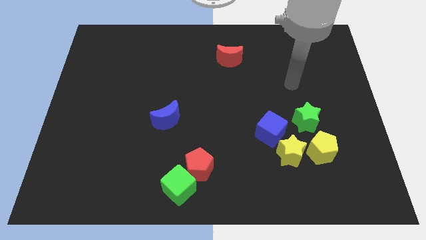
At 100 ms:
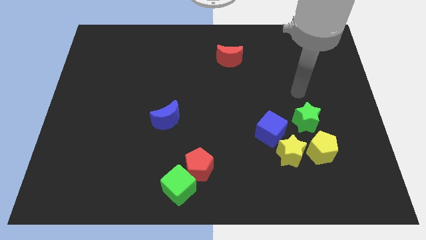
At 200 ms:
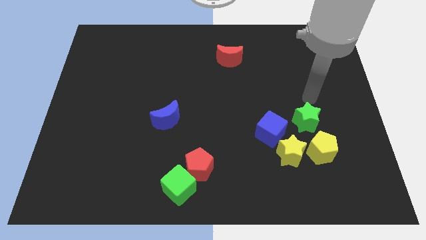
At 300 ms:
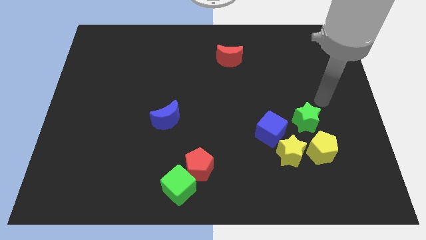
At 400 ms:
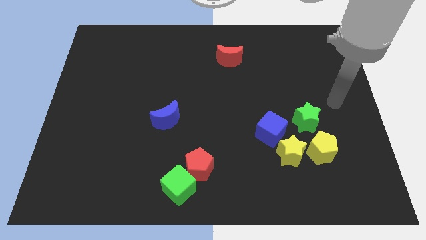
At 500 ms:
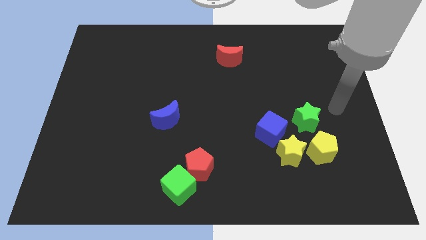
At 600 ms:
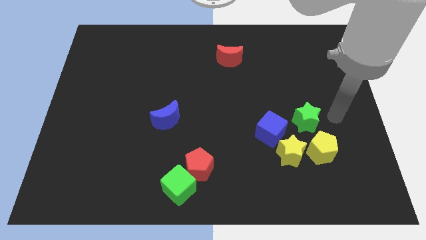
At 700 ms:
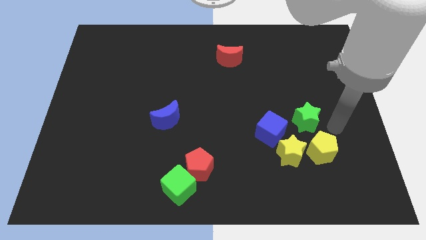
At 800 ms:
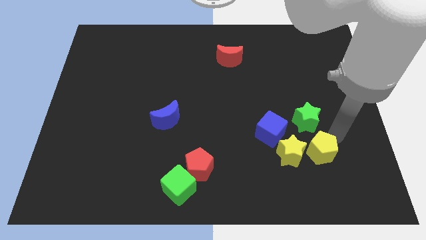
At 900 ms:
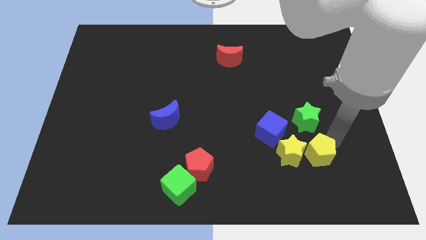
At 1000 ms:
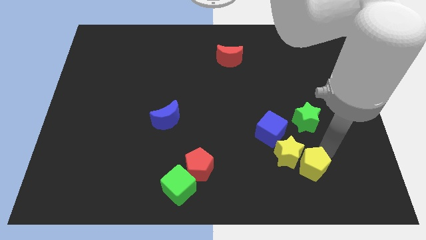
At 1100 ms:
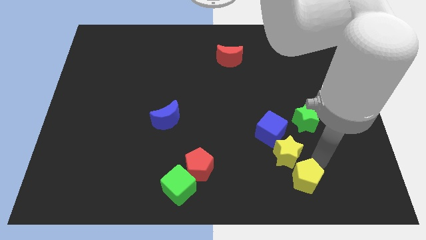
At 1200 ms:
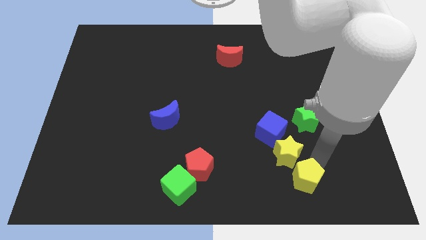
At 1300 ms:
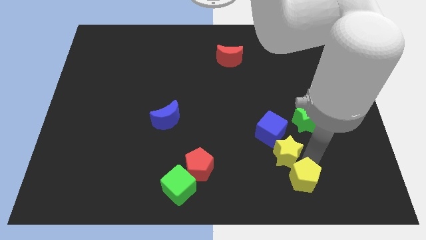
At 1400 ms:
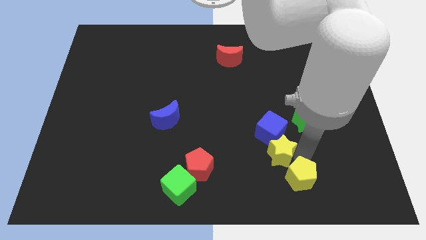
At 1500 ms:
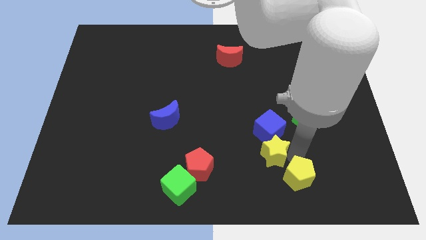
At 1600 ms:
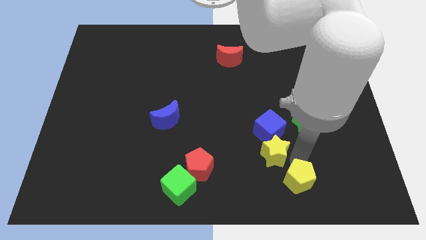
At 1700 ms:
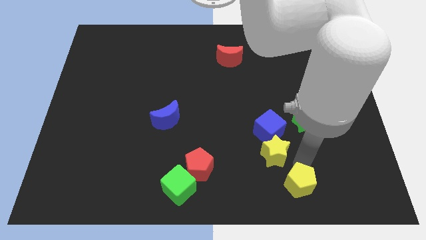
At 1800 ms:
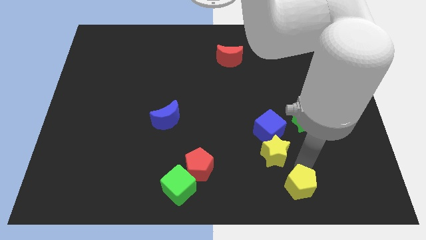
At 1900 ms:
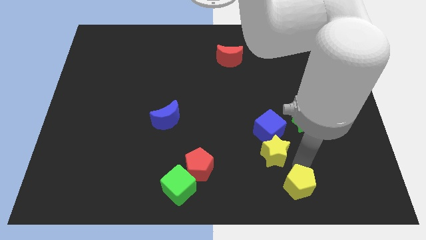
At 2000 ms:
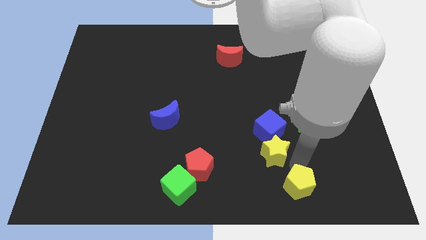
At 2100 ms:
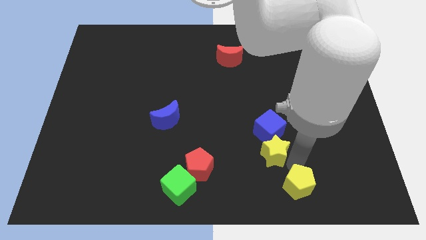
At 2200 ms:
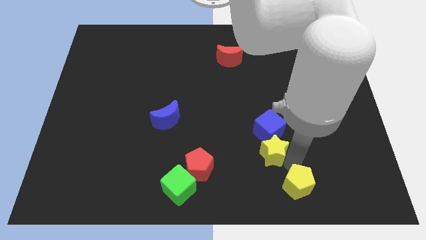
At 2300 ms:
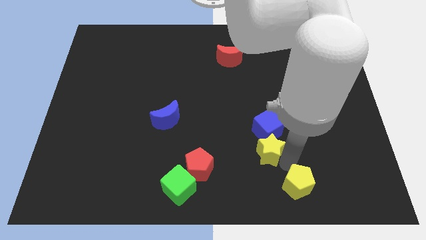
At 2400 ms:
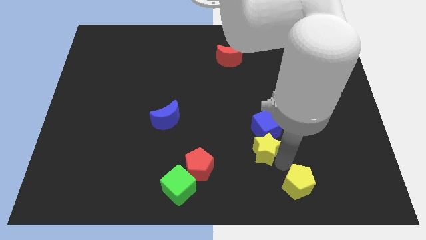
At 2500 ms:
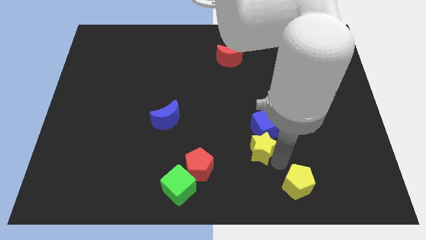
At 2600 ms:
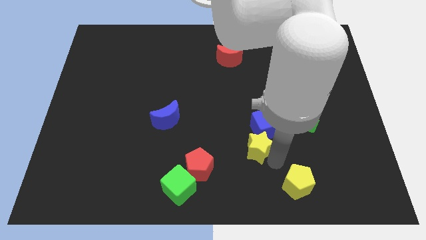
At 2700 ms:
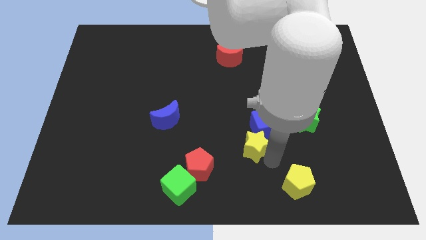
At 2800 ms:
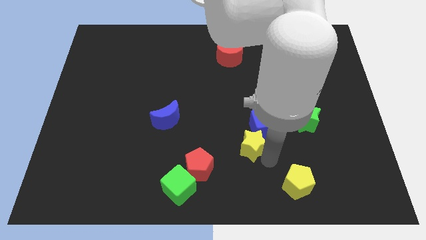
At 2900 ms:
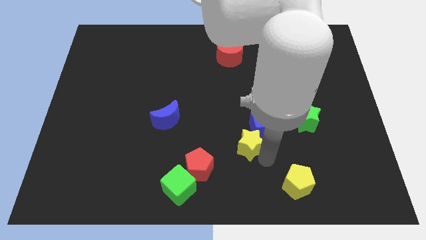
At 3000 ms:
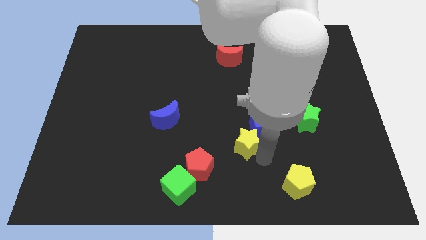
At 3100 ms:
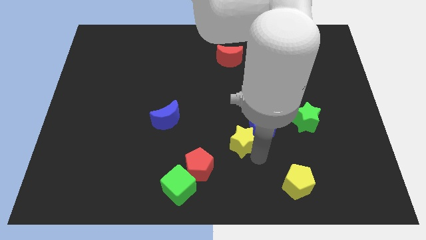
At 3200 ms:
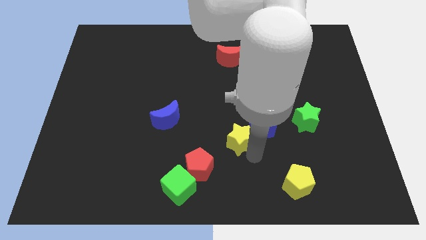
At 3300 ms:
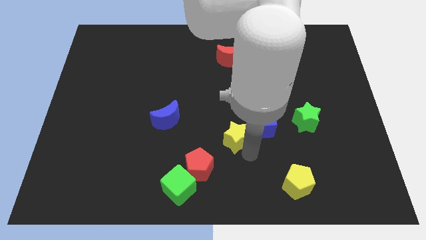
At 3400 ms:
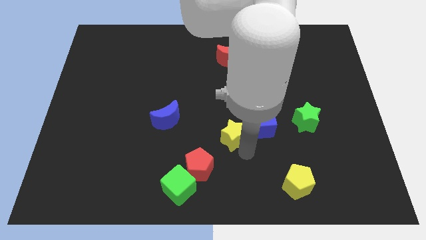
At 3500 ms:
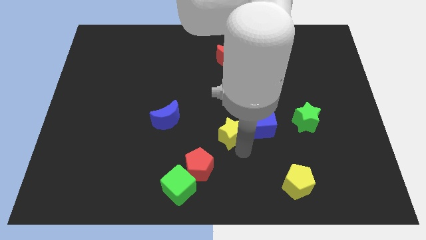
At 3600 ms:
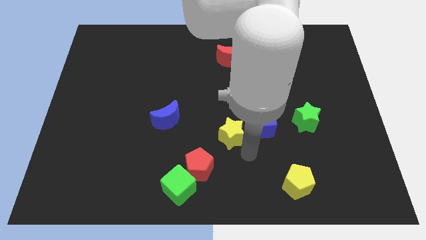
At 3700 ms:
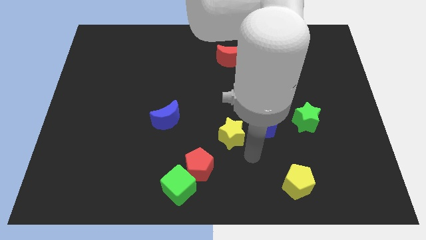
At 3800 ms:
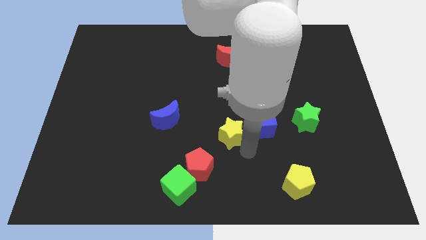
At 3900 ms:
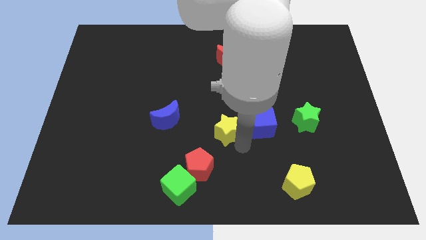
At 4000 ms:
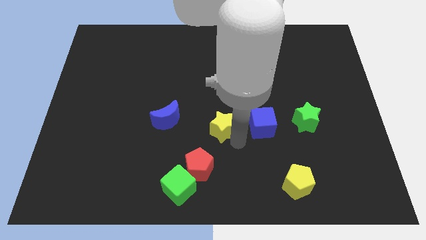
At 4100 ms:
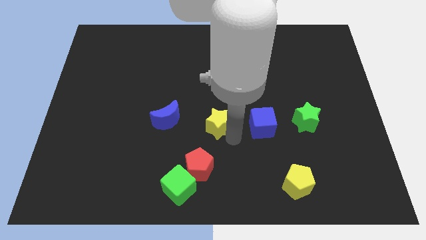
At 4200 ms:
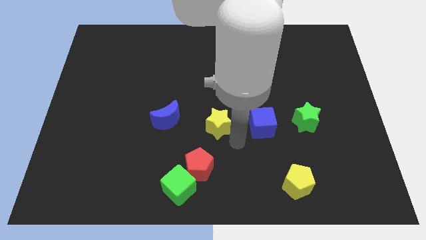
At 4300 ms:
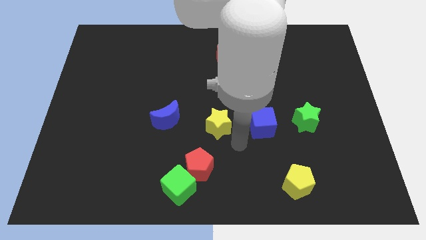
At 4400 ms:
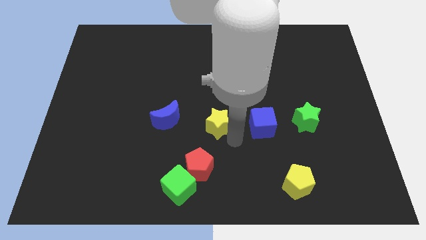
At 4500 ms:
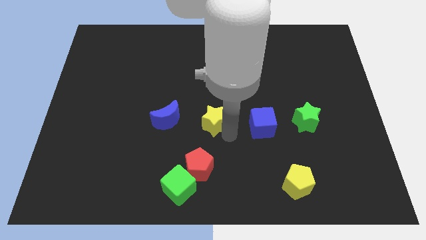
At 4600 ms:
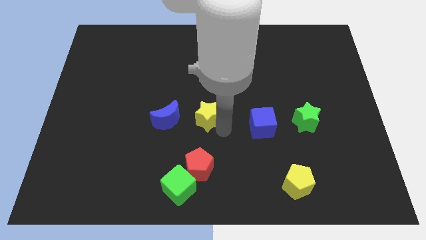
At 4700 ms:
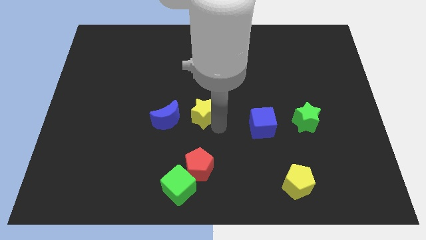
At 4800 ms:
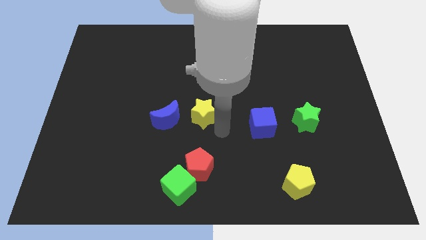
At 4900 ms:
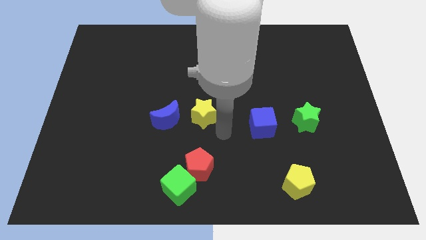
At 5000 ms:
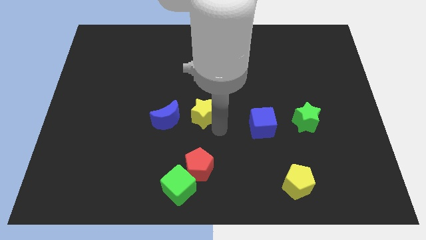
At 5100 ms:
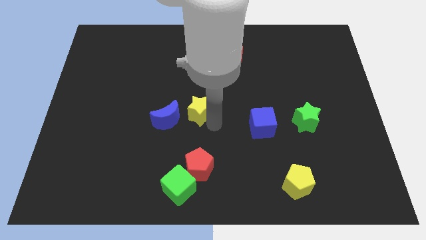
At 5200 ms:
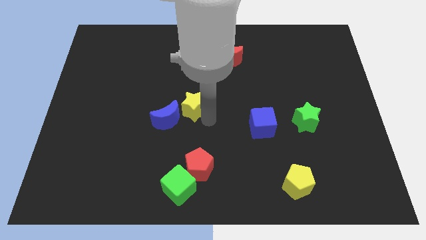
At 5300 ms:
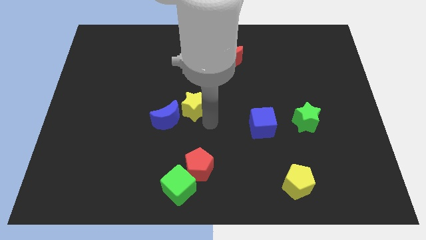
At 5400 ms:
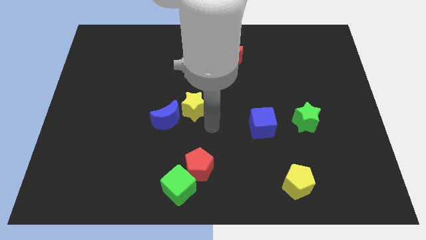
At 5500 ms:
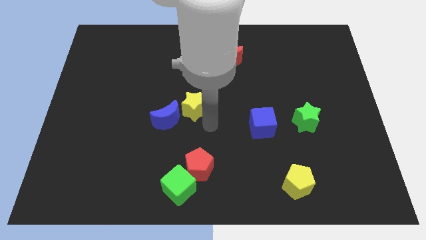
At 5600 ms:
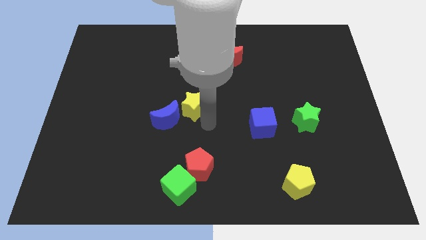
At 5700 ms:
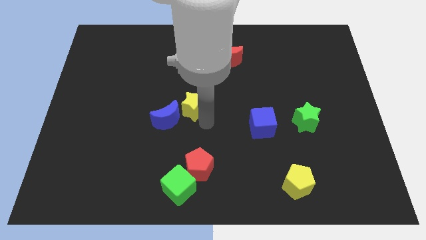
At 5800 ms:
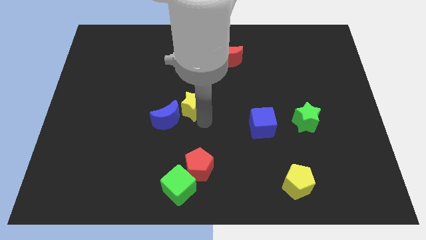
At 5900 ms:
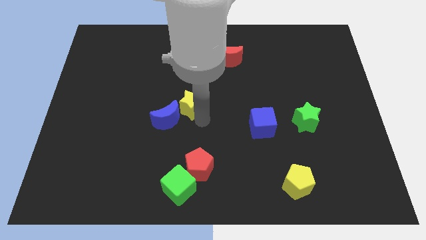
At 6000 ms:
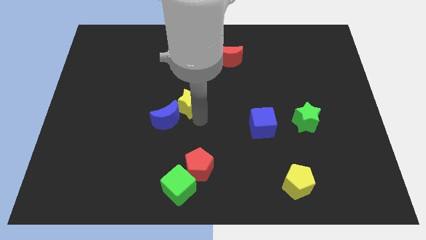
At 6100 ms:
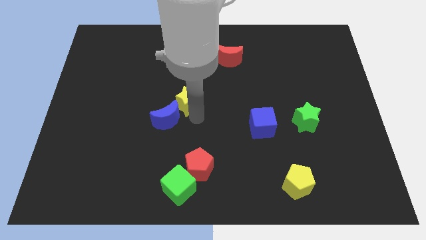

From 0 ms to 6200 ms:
push the yellow star to the top side of the blue moon

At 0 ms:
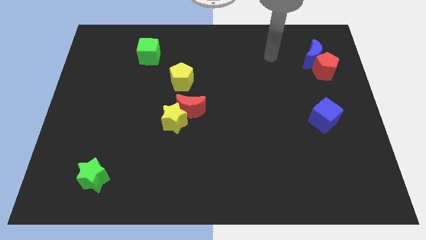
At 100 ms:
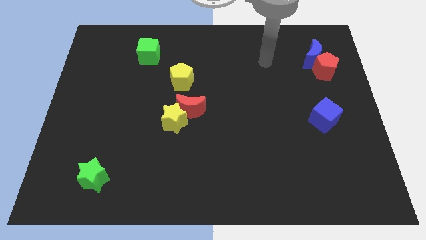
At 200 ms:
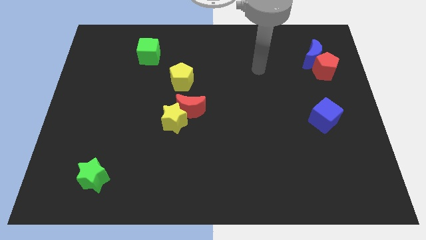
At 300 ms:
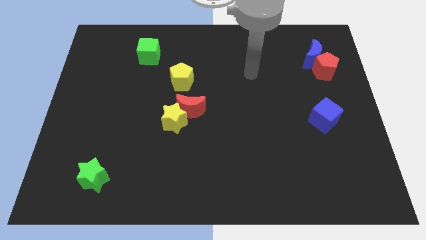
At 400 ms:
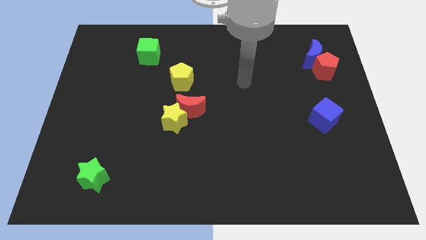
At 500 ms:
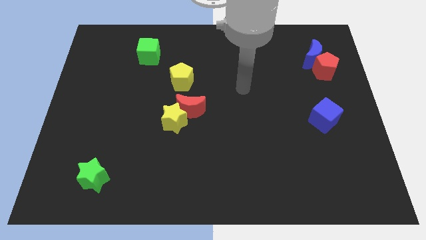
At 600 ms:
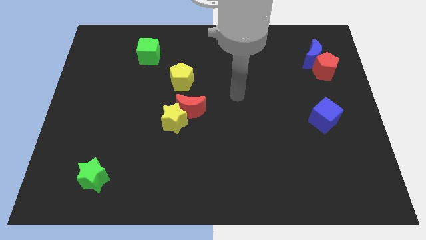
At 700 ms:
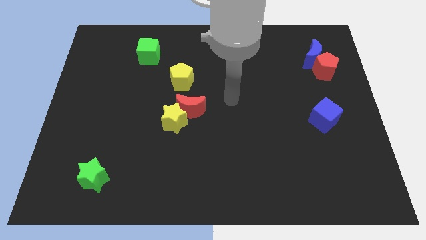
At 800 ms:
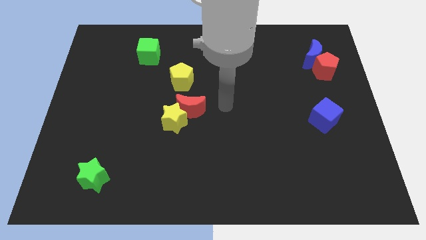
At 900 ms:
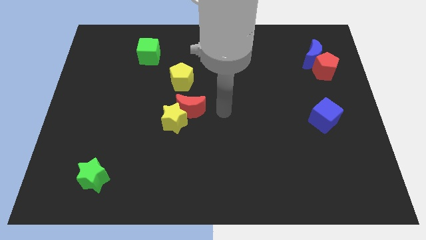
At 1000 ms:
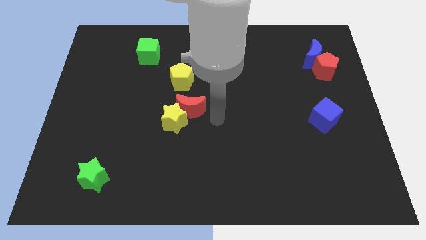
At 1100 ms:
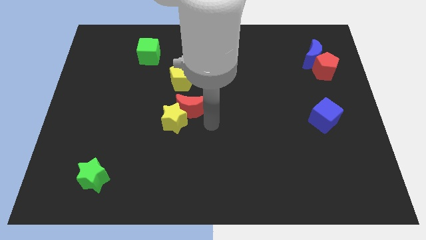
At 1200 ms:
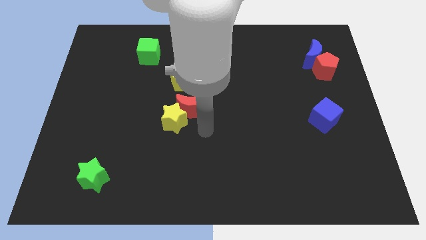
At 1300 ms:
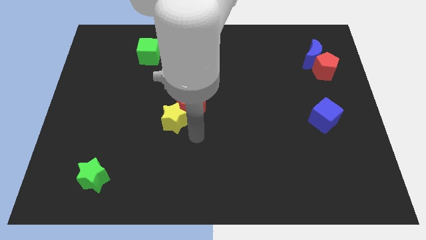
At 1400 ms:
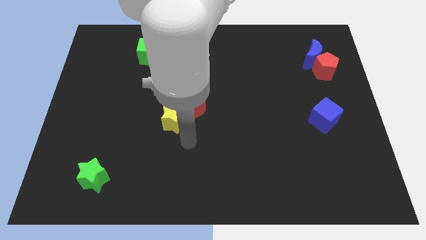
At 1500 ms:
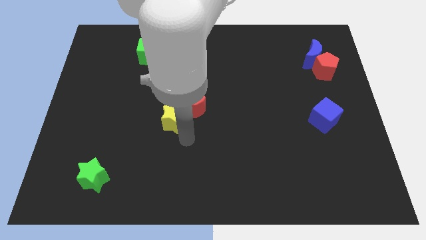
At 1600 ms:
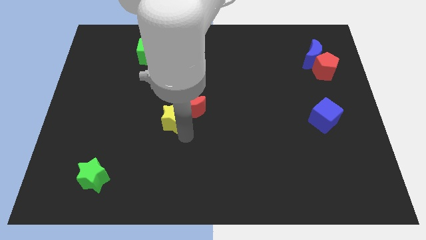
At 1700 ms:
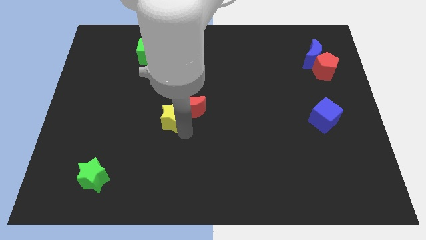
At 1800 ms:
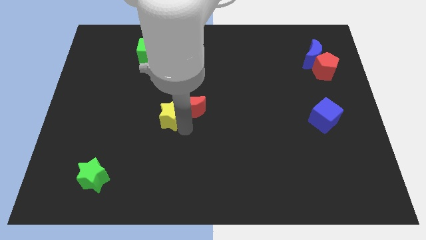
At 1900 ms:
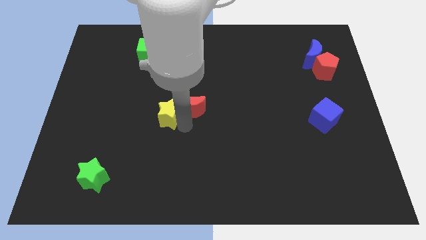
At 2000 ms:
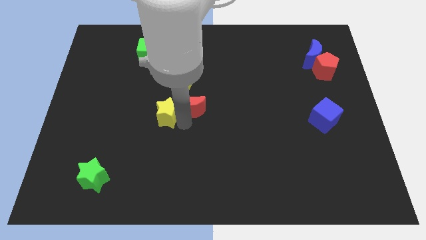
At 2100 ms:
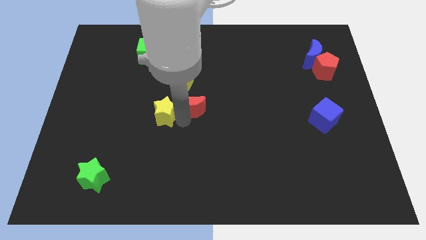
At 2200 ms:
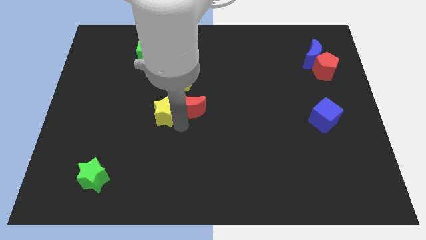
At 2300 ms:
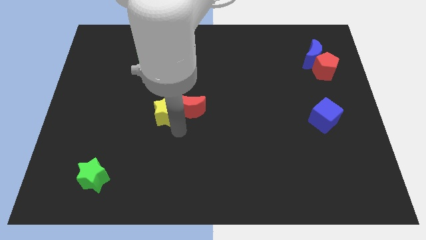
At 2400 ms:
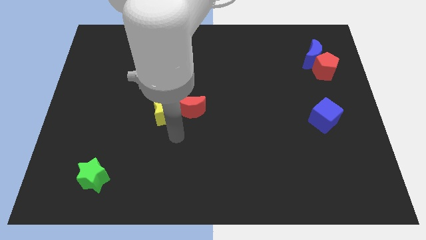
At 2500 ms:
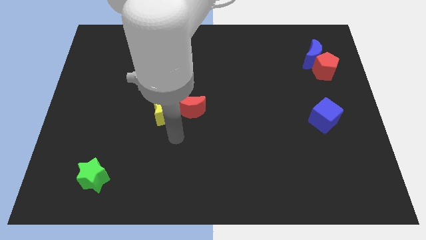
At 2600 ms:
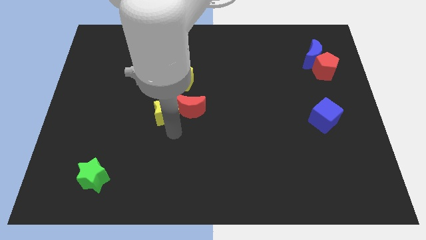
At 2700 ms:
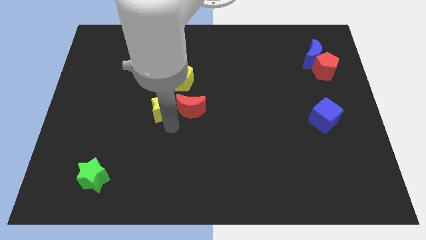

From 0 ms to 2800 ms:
slide the yellow star to the bottom left side of the yellow pentagon
